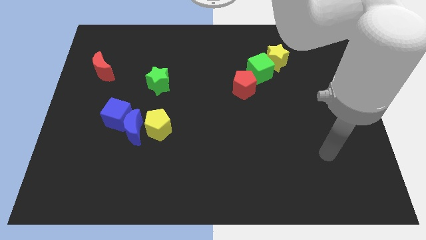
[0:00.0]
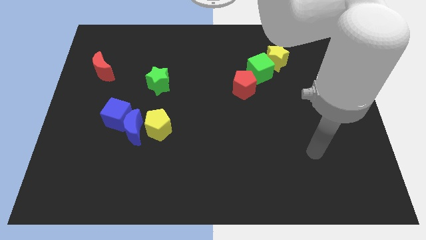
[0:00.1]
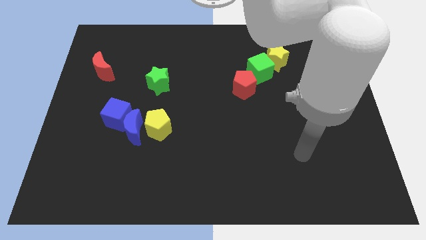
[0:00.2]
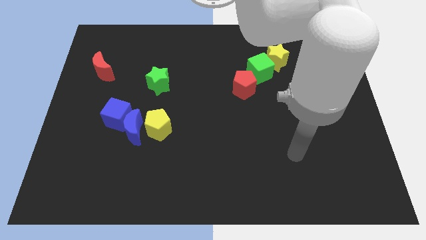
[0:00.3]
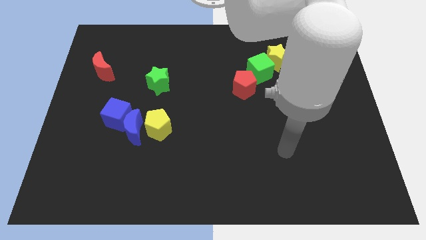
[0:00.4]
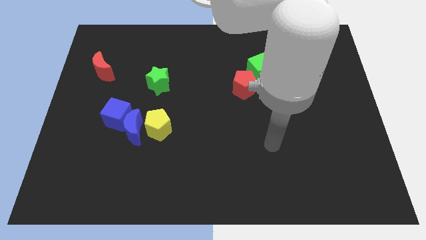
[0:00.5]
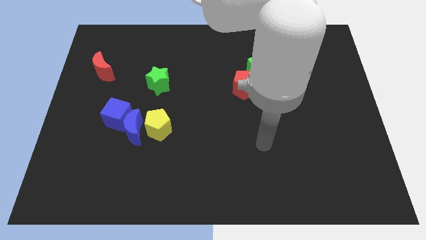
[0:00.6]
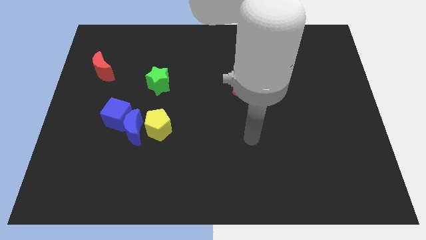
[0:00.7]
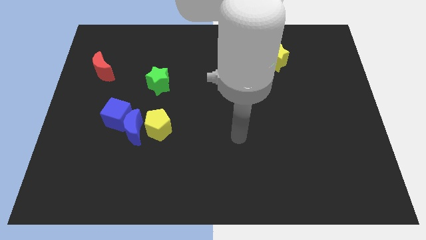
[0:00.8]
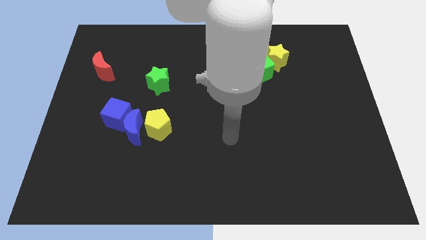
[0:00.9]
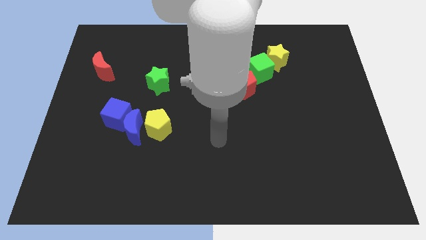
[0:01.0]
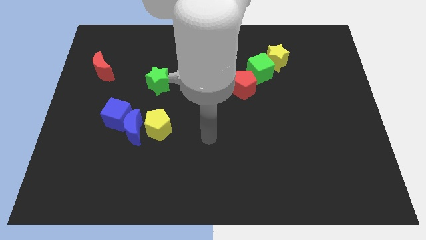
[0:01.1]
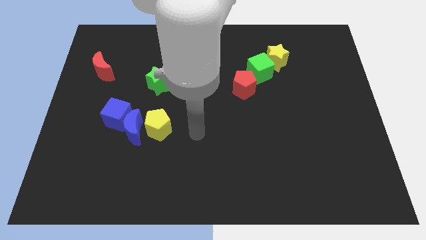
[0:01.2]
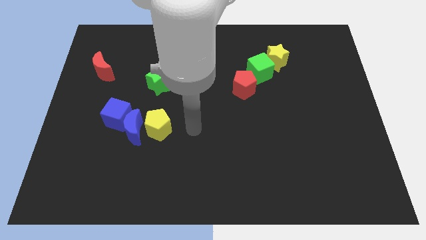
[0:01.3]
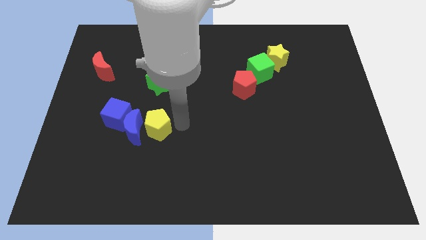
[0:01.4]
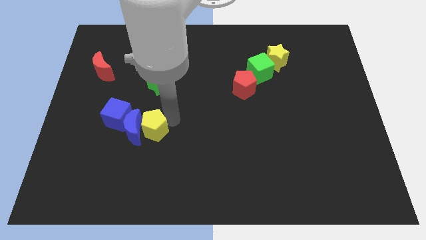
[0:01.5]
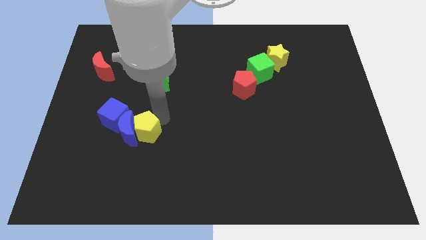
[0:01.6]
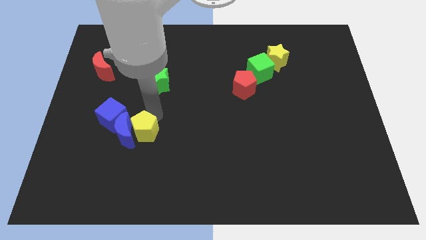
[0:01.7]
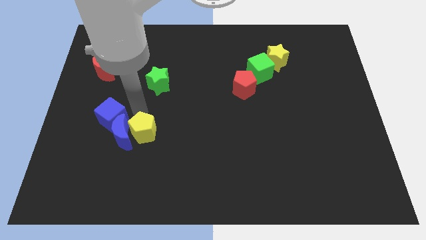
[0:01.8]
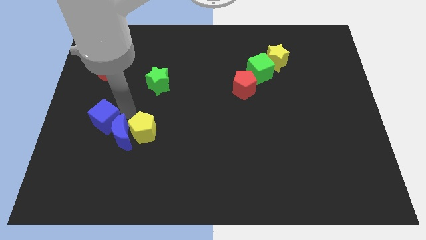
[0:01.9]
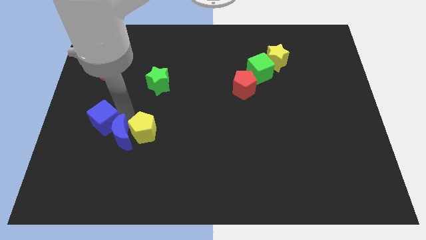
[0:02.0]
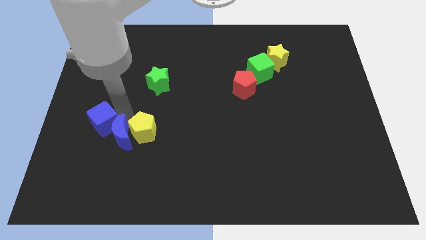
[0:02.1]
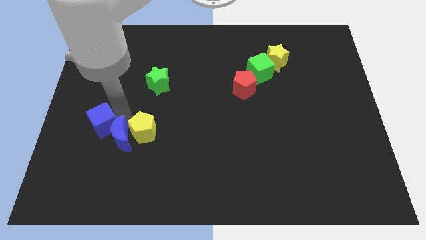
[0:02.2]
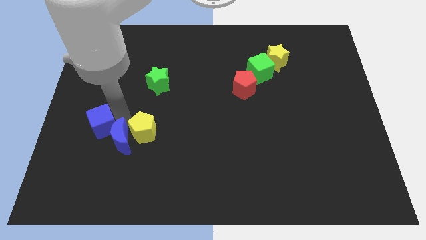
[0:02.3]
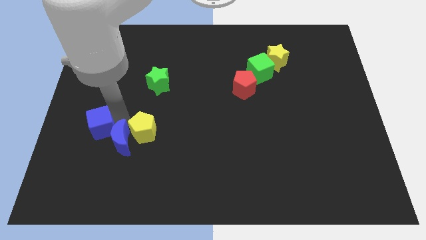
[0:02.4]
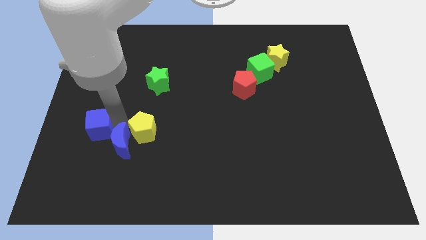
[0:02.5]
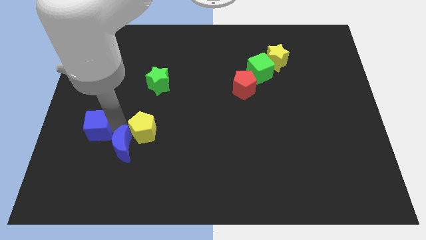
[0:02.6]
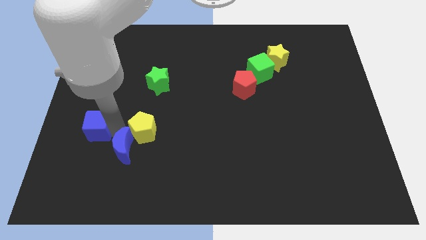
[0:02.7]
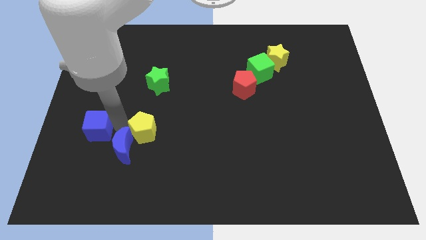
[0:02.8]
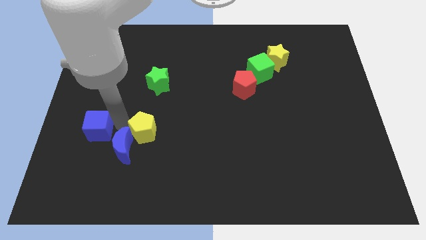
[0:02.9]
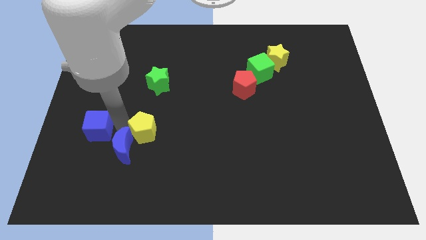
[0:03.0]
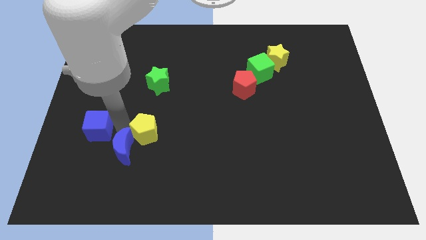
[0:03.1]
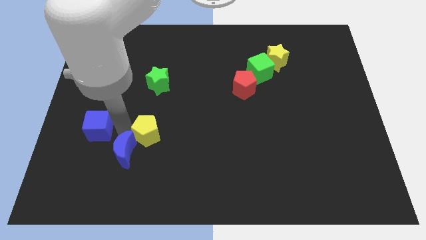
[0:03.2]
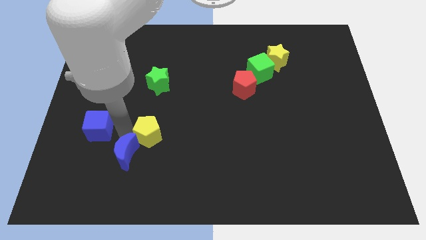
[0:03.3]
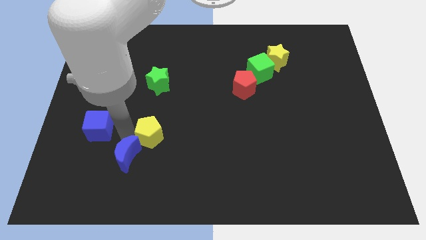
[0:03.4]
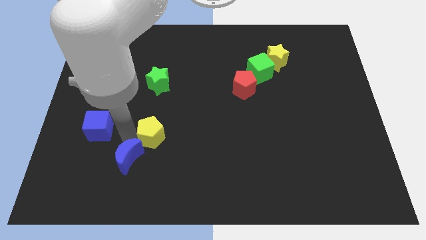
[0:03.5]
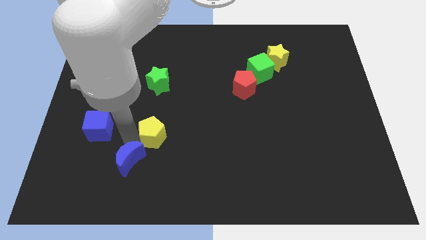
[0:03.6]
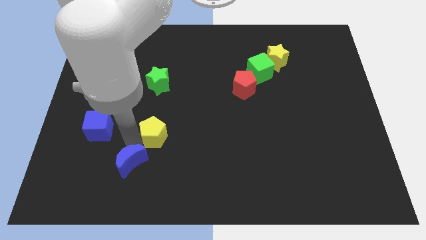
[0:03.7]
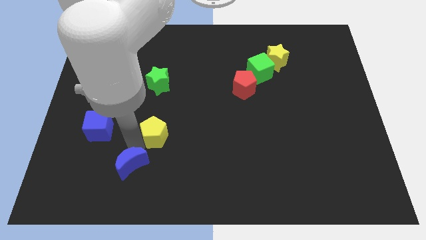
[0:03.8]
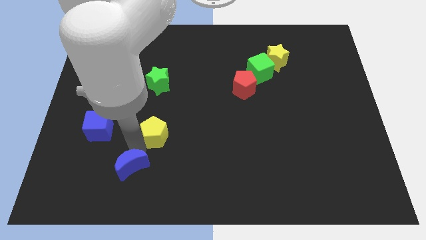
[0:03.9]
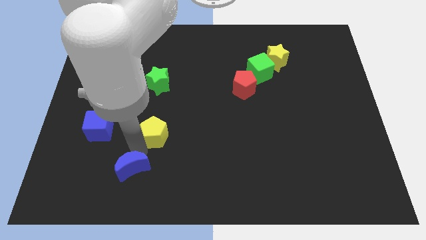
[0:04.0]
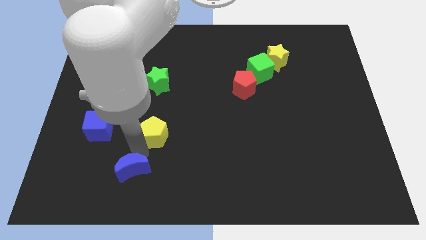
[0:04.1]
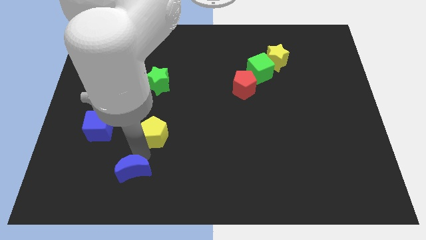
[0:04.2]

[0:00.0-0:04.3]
separate the blue moon from the blue cube and yellow pentagon

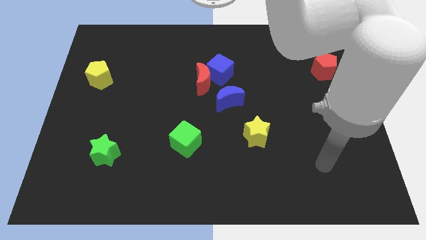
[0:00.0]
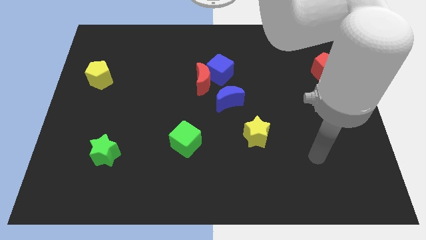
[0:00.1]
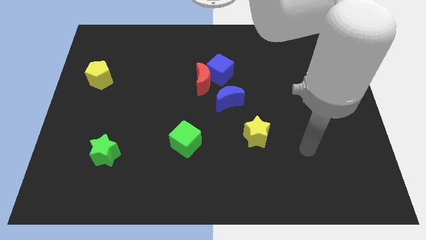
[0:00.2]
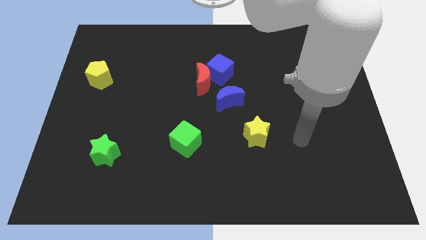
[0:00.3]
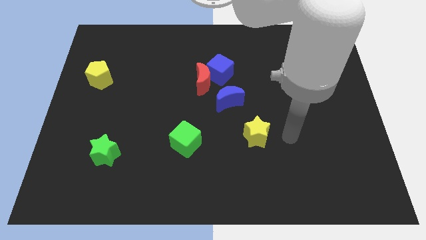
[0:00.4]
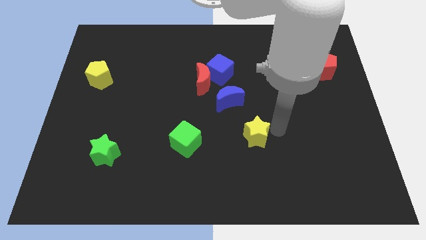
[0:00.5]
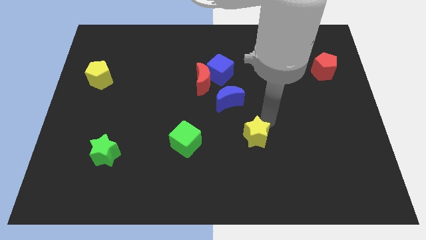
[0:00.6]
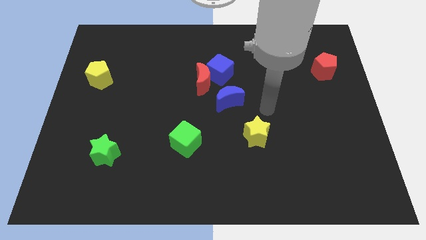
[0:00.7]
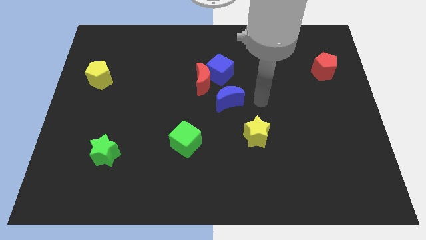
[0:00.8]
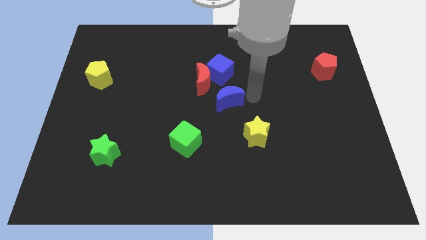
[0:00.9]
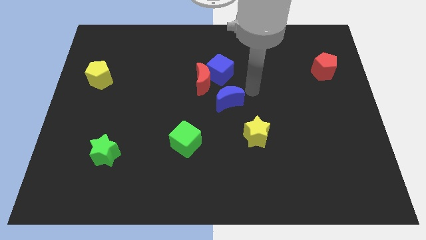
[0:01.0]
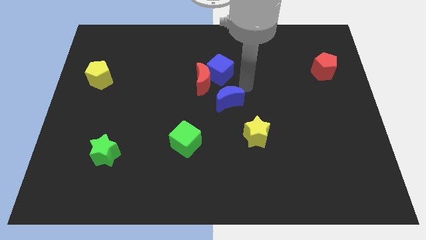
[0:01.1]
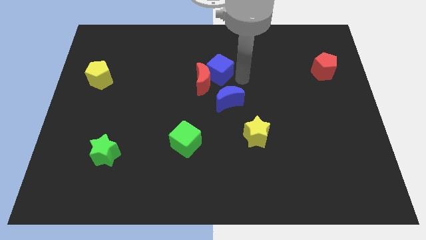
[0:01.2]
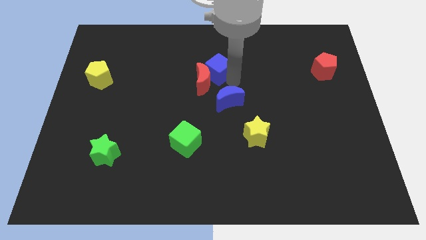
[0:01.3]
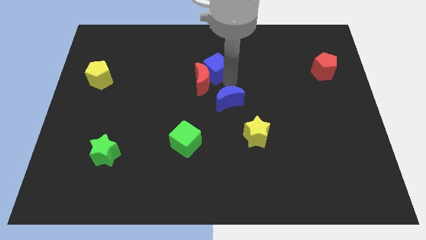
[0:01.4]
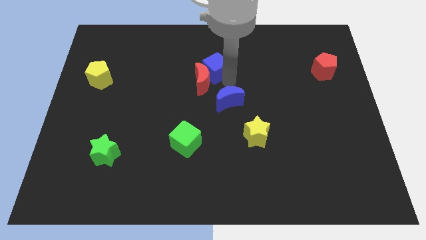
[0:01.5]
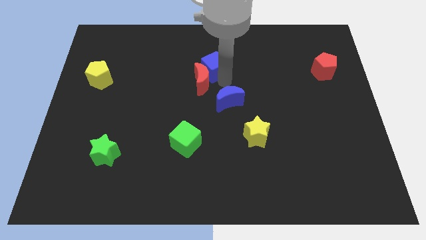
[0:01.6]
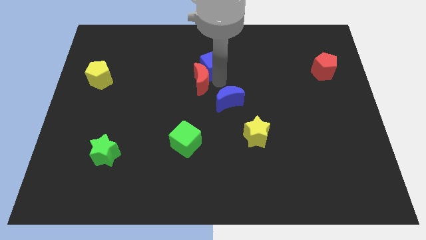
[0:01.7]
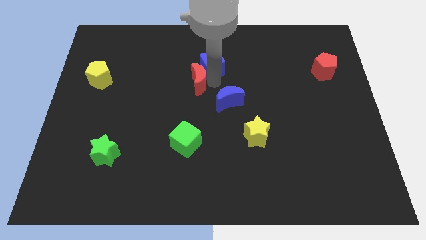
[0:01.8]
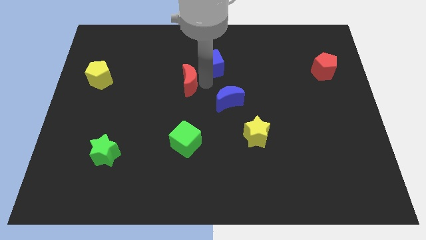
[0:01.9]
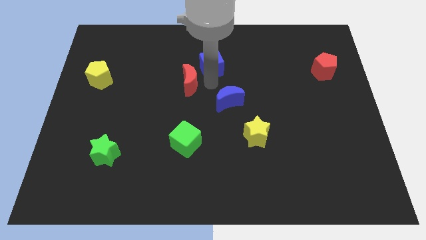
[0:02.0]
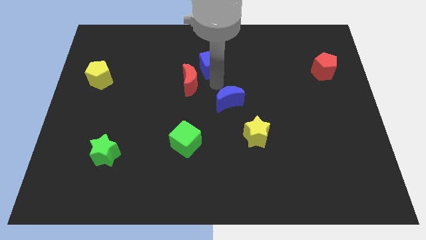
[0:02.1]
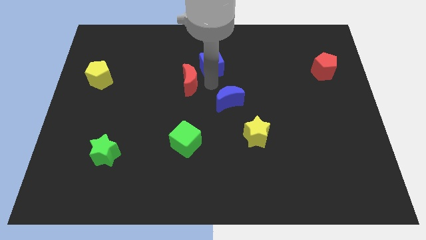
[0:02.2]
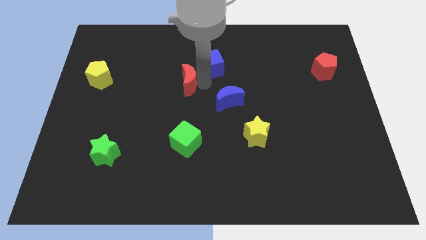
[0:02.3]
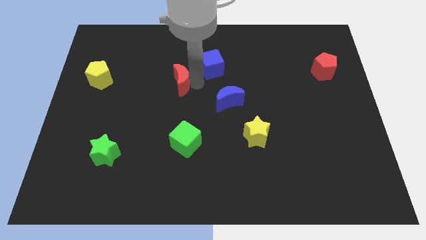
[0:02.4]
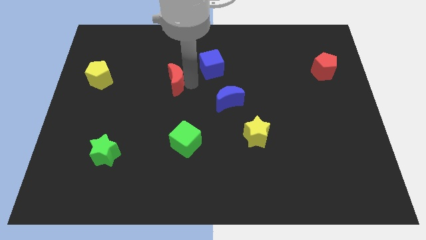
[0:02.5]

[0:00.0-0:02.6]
move the red moon away from the blue cube and blue moon

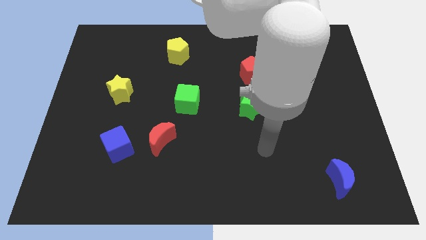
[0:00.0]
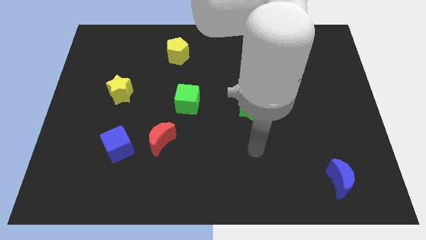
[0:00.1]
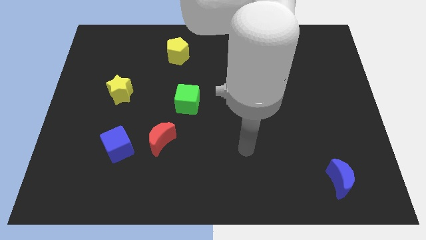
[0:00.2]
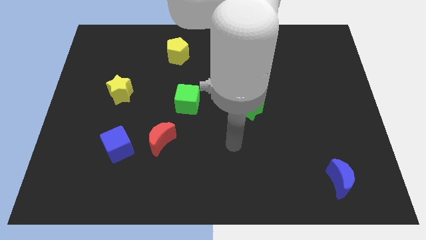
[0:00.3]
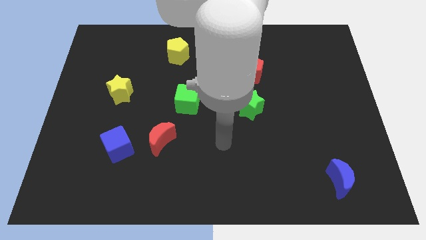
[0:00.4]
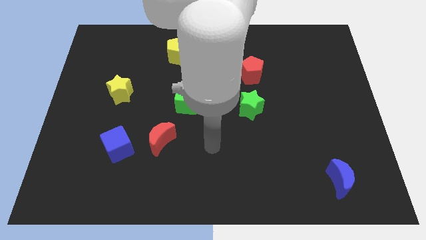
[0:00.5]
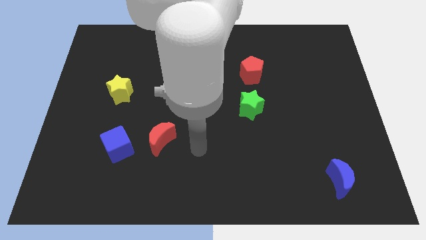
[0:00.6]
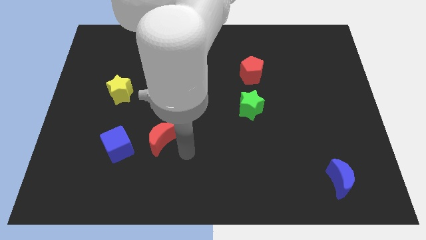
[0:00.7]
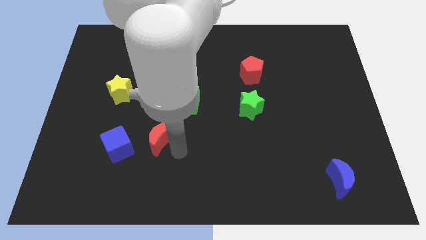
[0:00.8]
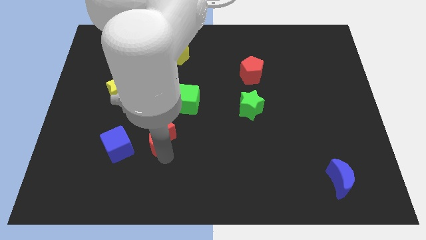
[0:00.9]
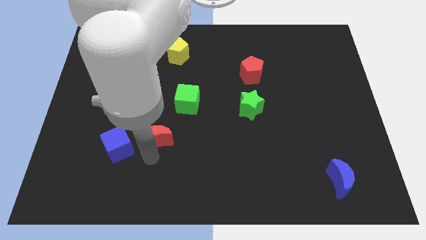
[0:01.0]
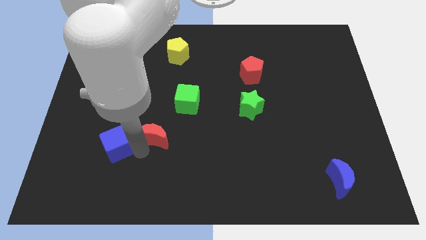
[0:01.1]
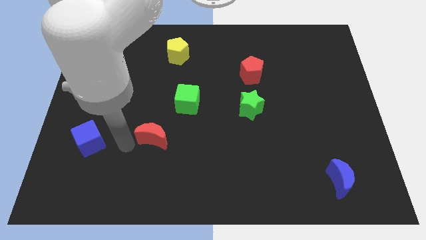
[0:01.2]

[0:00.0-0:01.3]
move the red moon away from the blue cube

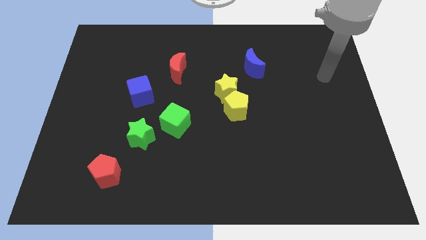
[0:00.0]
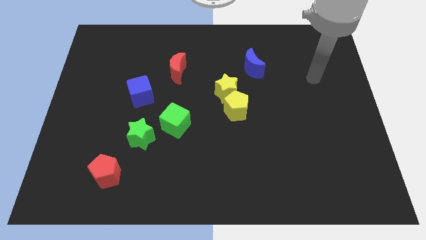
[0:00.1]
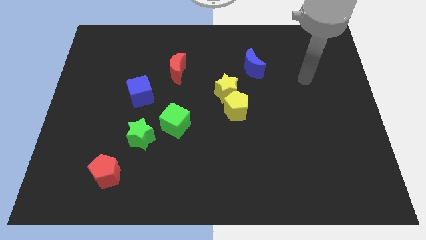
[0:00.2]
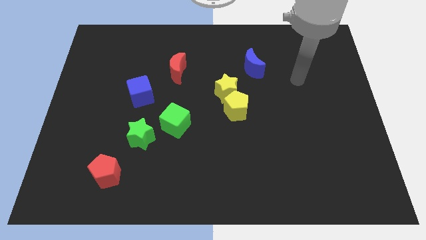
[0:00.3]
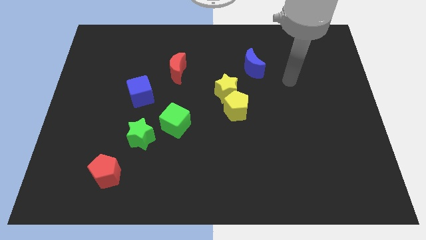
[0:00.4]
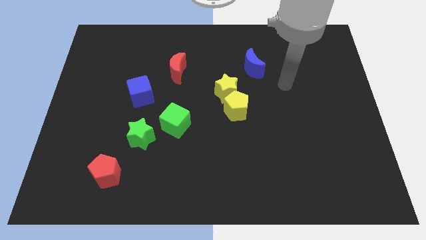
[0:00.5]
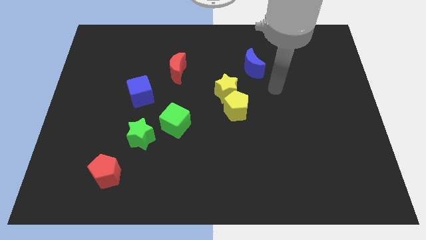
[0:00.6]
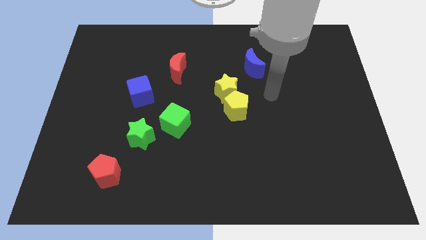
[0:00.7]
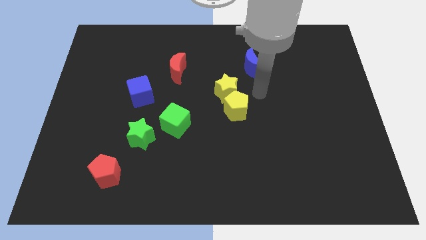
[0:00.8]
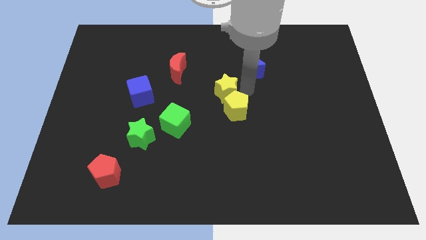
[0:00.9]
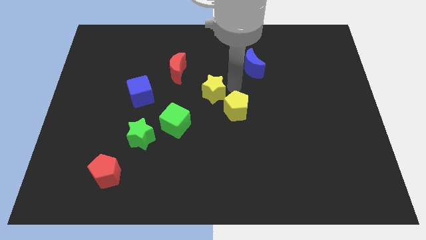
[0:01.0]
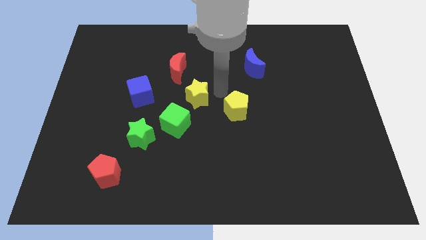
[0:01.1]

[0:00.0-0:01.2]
pull the yellow pentagon apart from the yellow star
